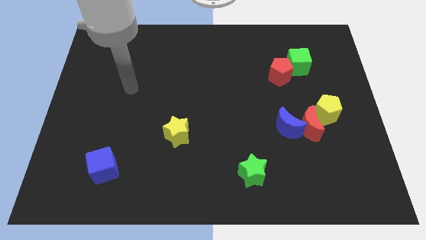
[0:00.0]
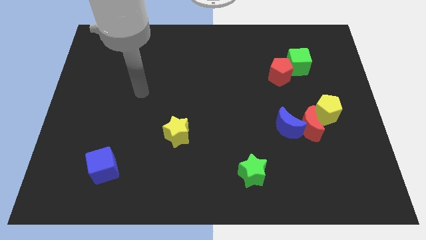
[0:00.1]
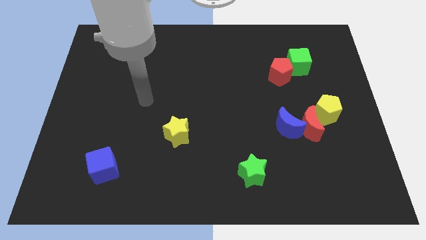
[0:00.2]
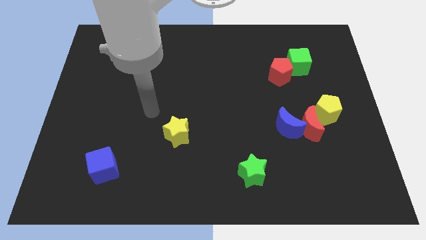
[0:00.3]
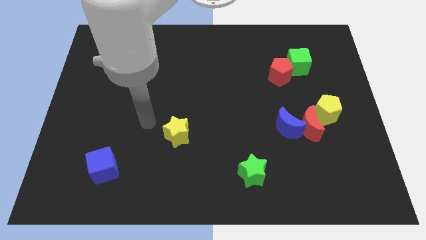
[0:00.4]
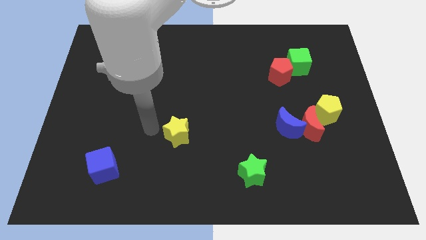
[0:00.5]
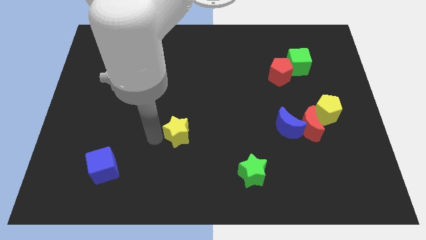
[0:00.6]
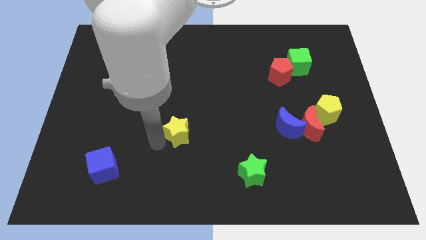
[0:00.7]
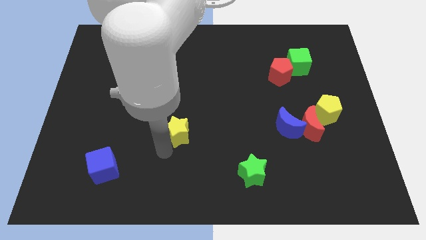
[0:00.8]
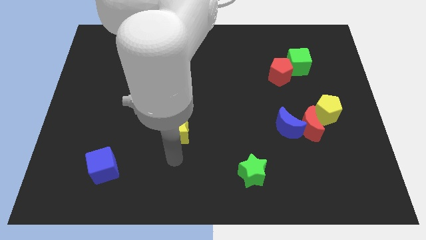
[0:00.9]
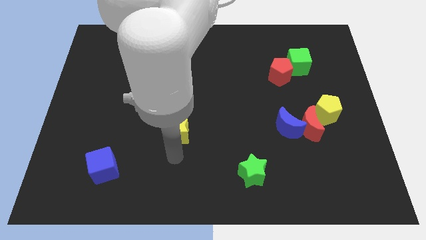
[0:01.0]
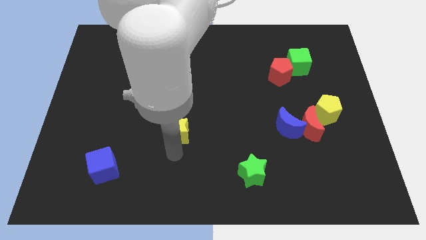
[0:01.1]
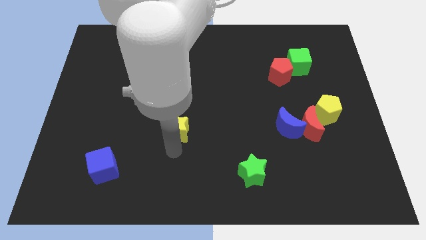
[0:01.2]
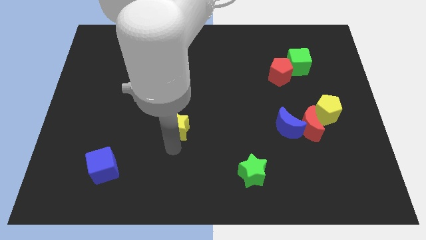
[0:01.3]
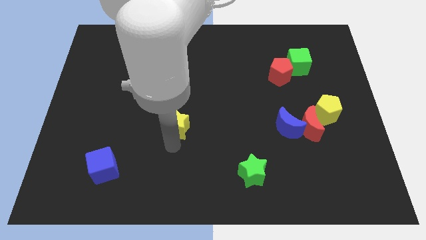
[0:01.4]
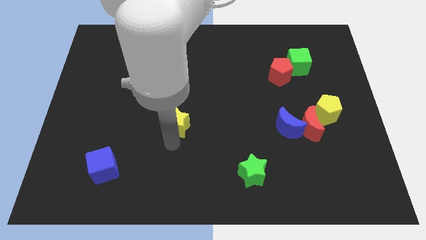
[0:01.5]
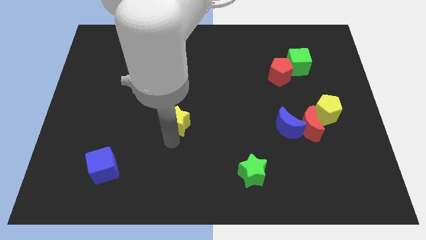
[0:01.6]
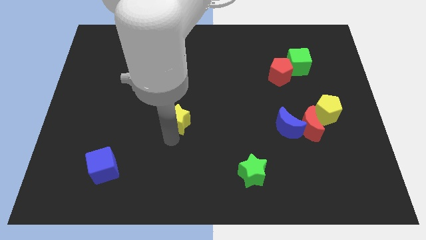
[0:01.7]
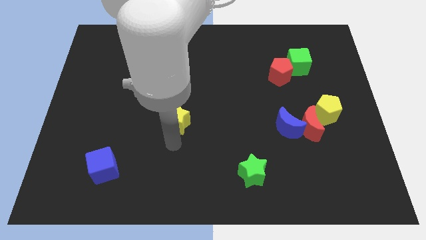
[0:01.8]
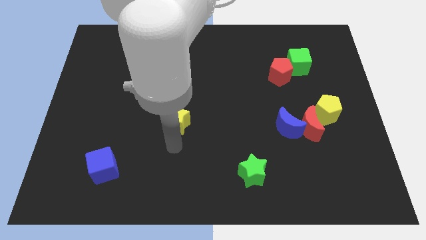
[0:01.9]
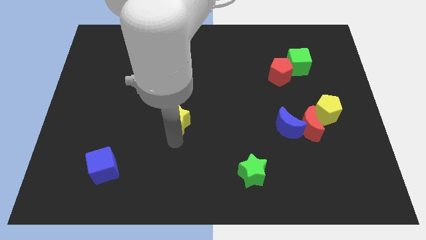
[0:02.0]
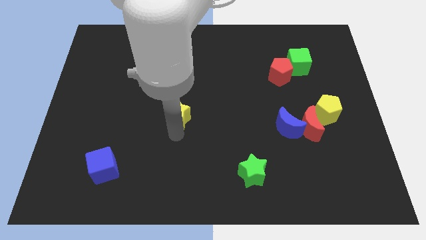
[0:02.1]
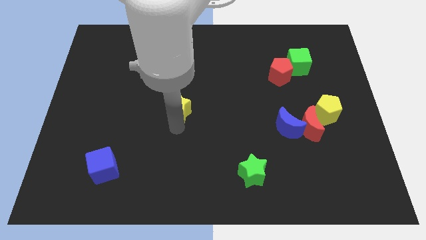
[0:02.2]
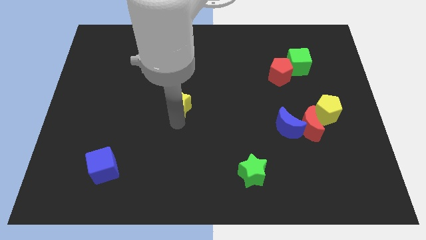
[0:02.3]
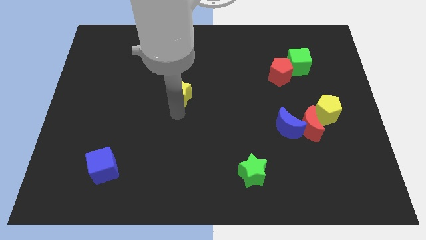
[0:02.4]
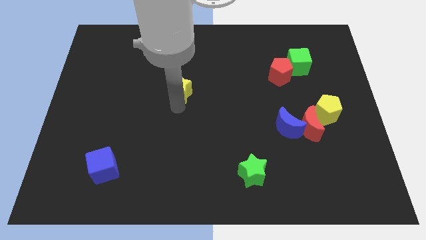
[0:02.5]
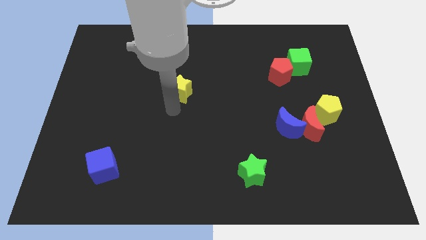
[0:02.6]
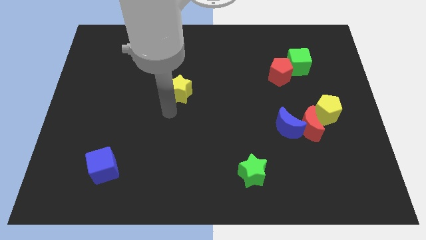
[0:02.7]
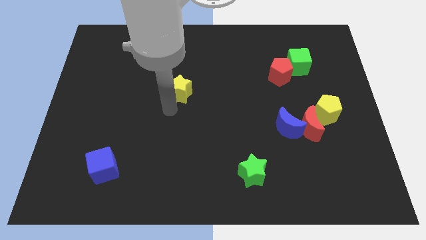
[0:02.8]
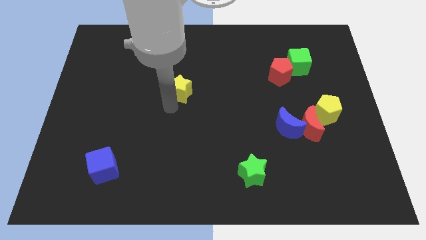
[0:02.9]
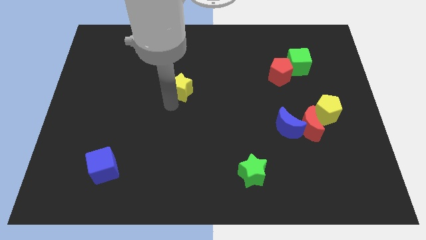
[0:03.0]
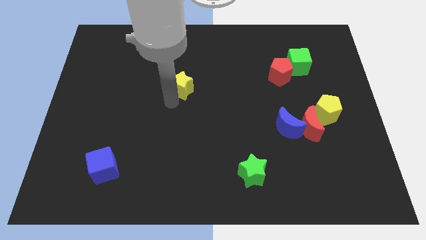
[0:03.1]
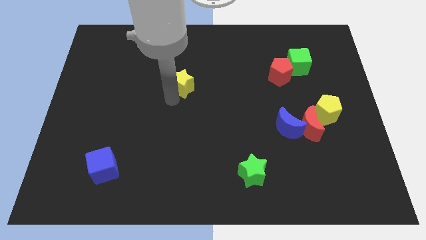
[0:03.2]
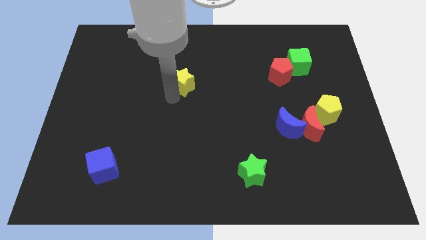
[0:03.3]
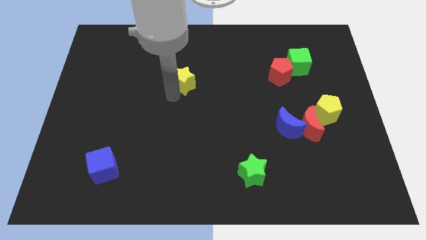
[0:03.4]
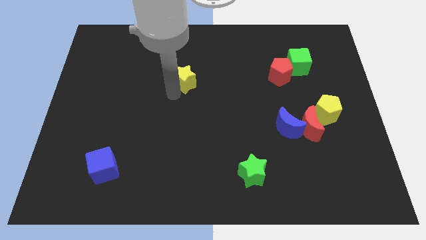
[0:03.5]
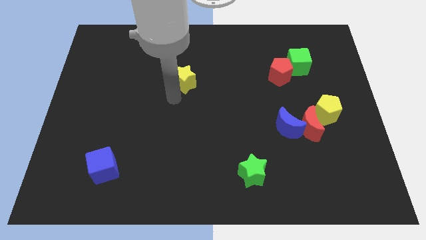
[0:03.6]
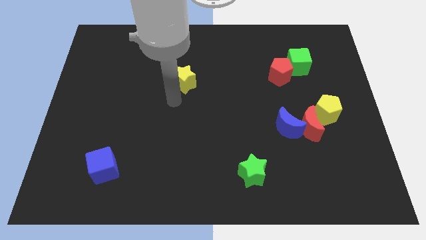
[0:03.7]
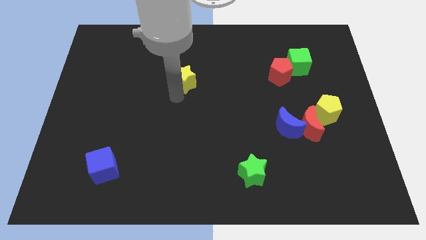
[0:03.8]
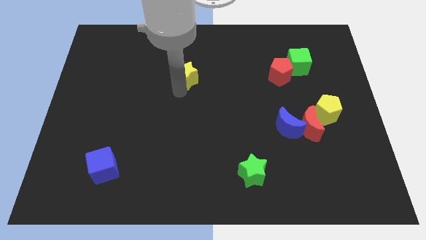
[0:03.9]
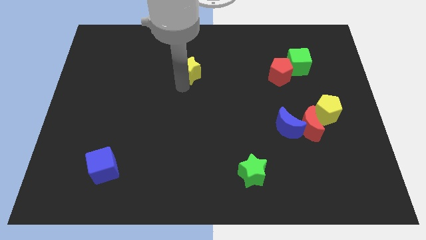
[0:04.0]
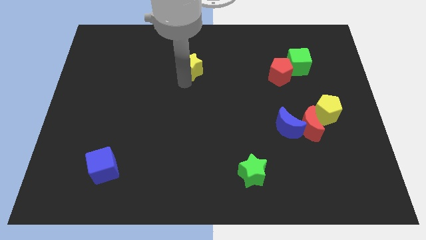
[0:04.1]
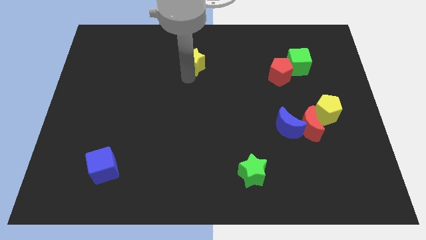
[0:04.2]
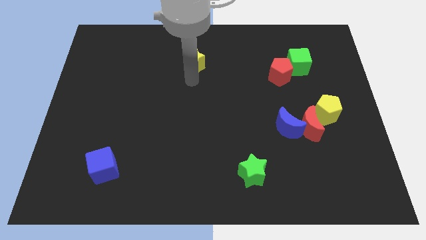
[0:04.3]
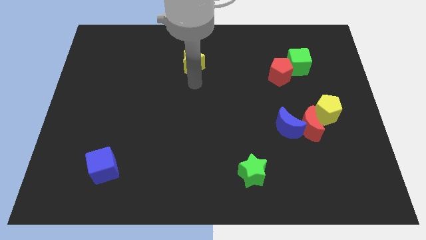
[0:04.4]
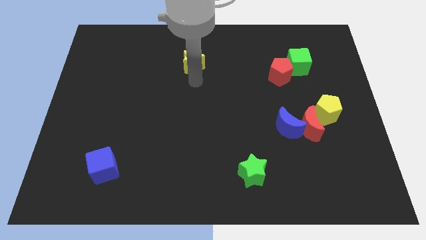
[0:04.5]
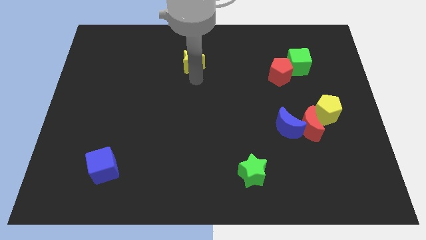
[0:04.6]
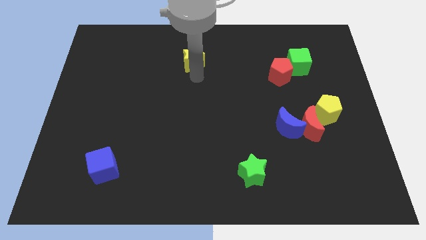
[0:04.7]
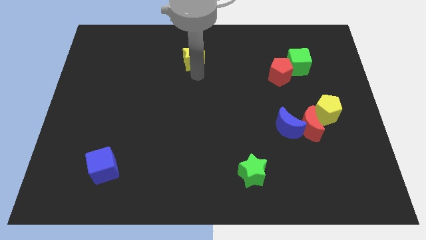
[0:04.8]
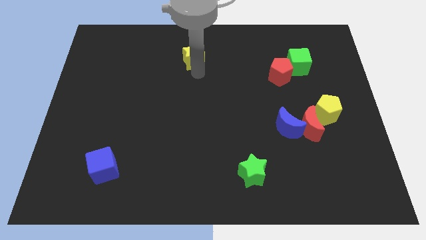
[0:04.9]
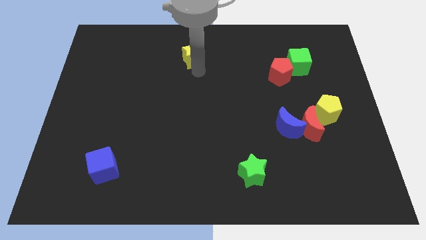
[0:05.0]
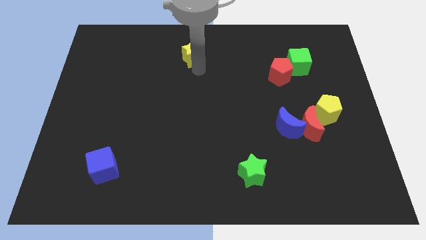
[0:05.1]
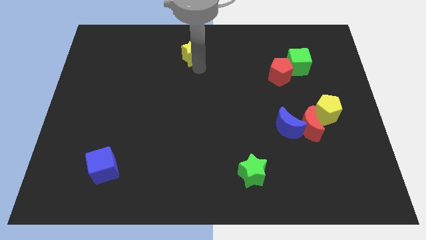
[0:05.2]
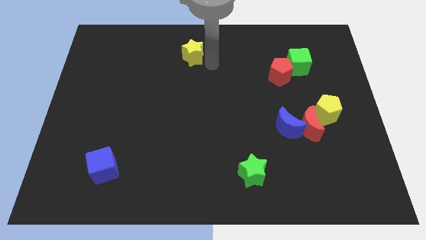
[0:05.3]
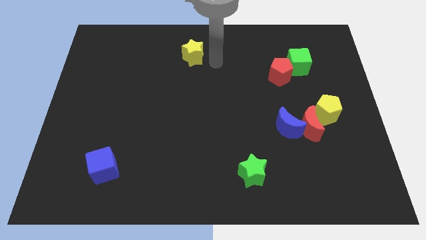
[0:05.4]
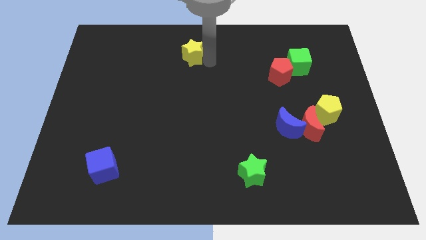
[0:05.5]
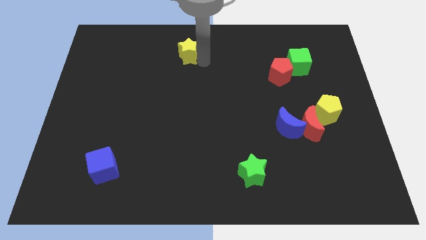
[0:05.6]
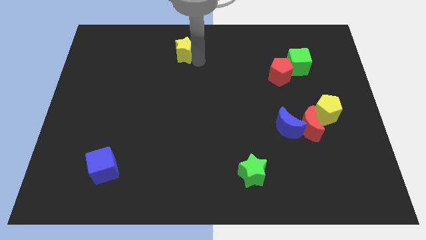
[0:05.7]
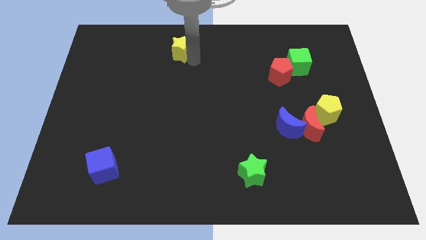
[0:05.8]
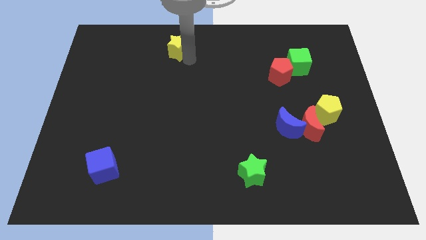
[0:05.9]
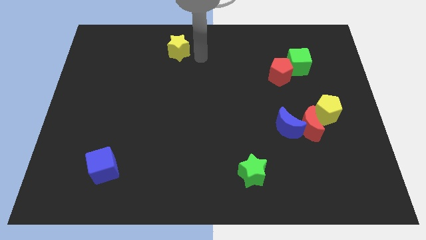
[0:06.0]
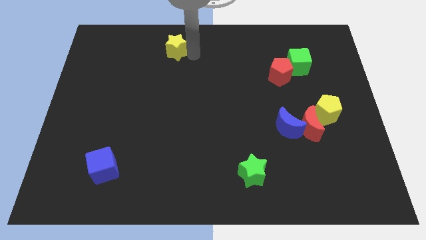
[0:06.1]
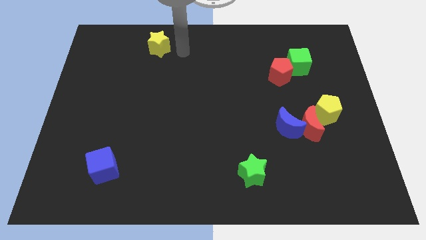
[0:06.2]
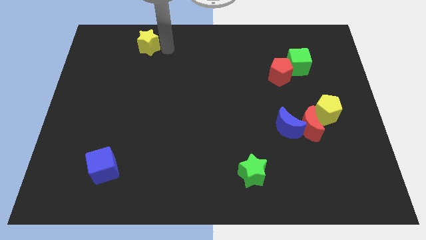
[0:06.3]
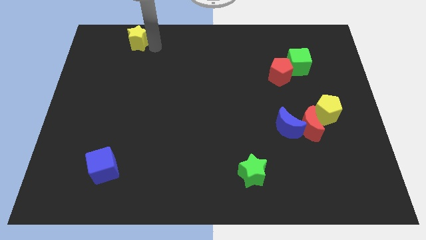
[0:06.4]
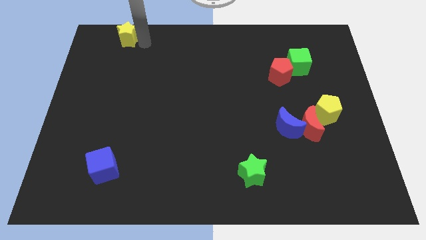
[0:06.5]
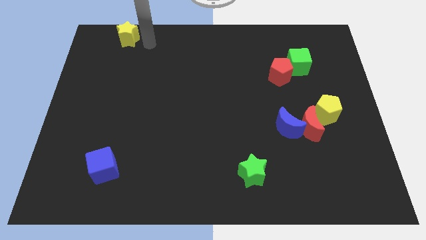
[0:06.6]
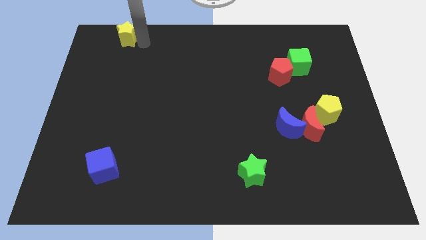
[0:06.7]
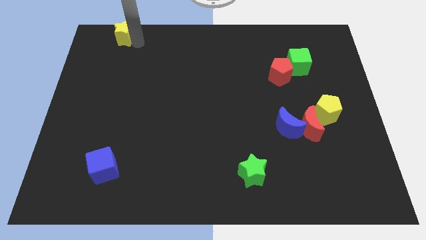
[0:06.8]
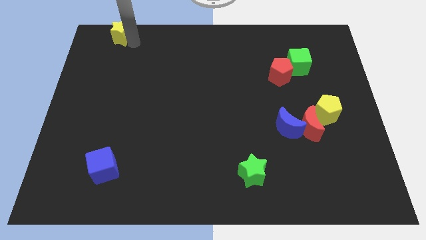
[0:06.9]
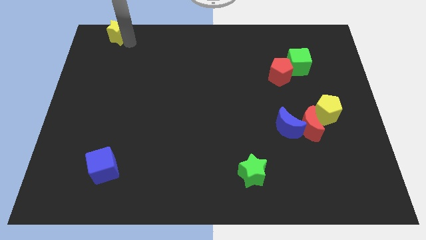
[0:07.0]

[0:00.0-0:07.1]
slide the yellow star to the top left
